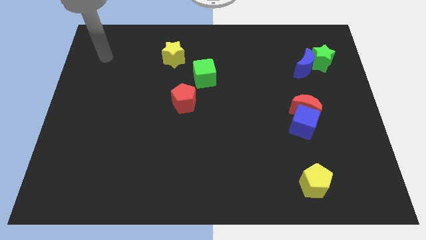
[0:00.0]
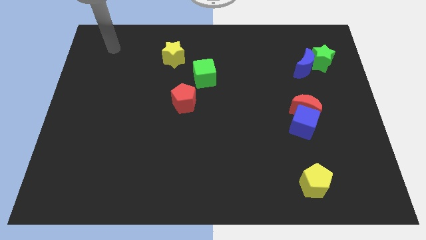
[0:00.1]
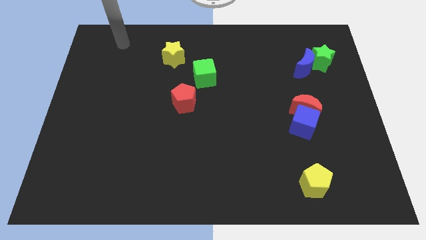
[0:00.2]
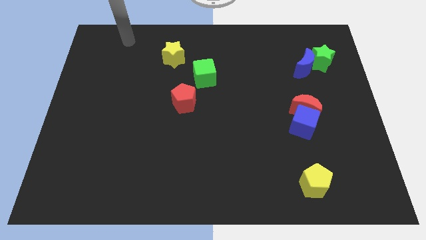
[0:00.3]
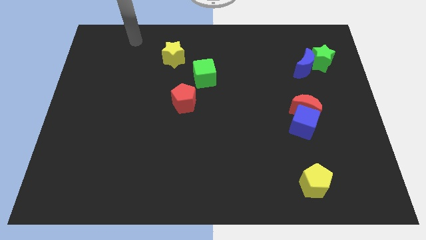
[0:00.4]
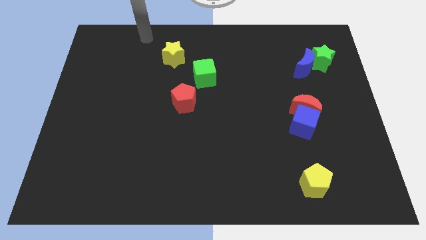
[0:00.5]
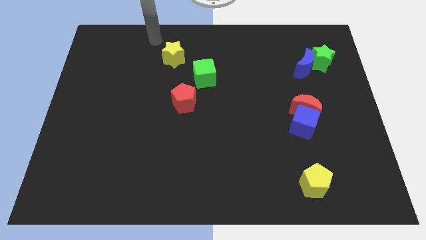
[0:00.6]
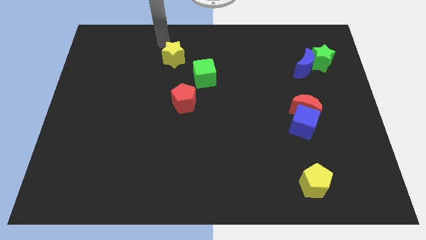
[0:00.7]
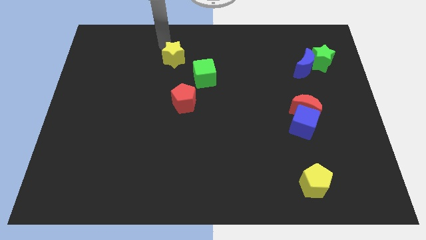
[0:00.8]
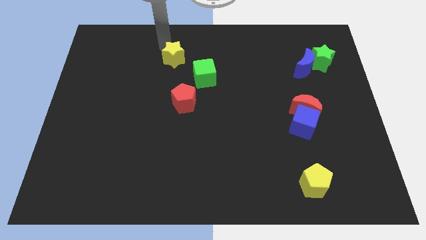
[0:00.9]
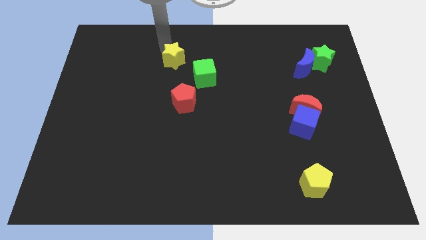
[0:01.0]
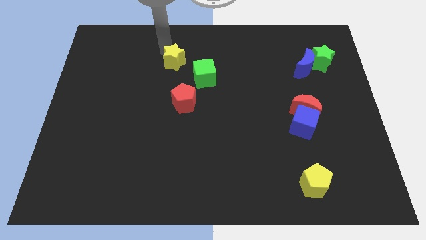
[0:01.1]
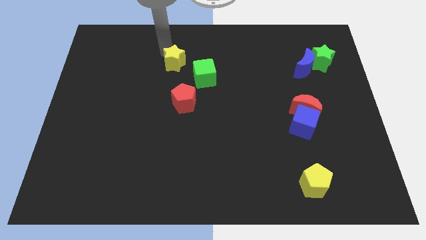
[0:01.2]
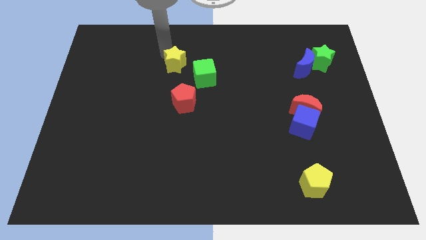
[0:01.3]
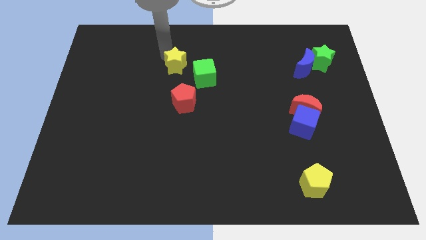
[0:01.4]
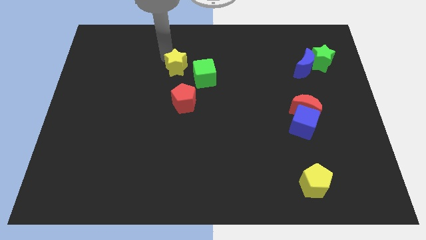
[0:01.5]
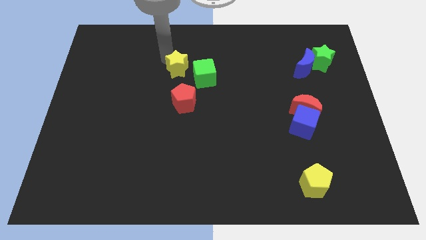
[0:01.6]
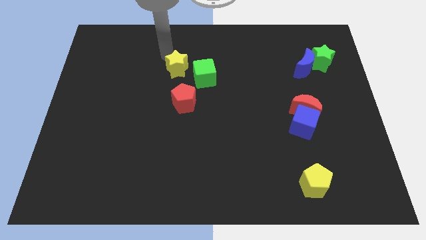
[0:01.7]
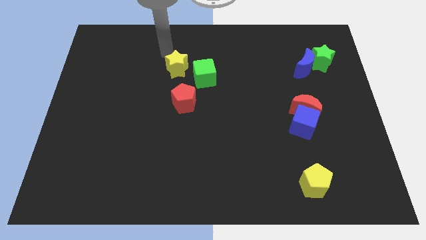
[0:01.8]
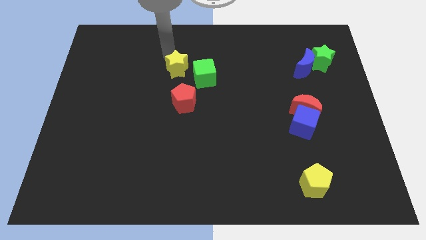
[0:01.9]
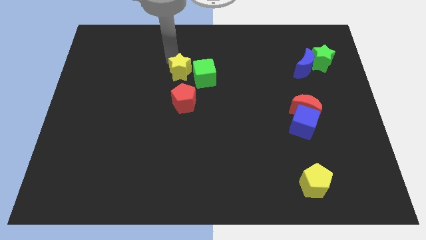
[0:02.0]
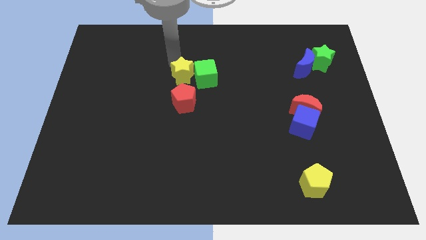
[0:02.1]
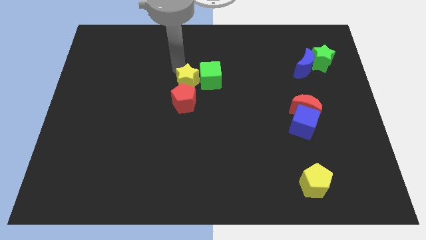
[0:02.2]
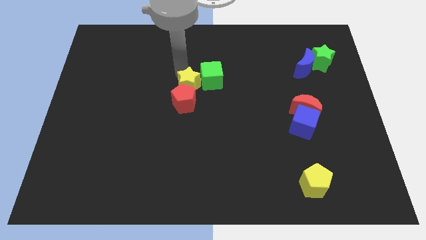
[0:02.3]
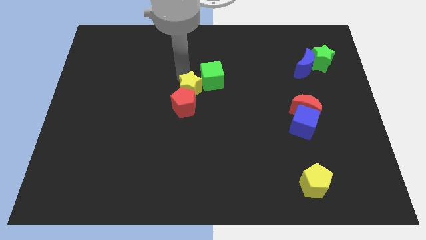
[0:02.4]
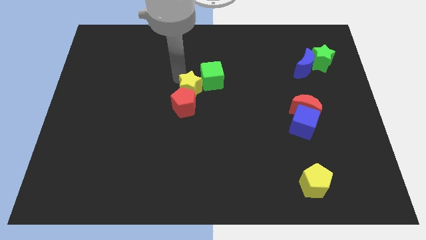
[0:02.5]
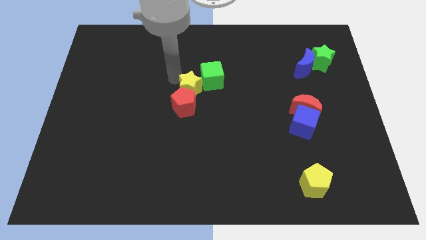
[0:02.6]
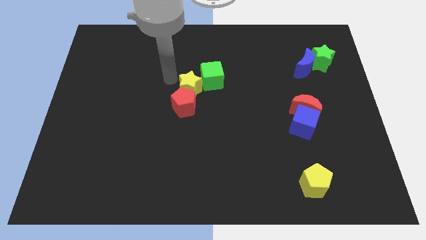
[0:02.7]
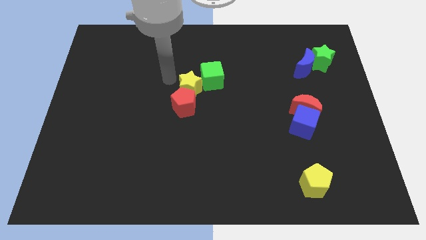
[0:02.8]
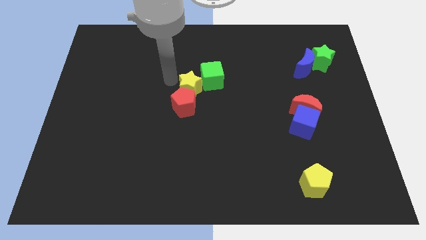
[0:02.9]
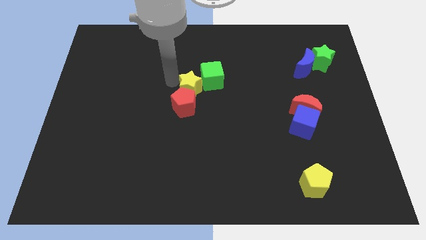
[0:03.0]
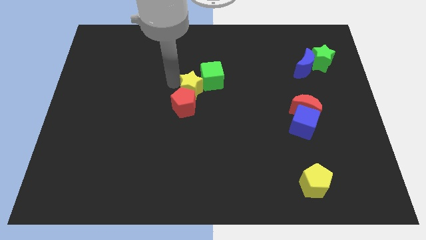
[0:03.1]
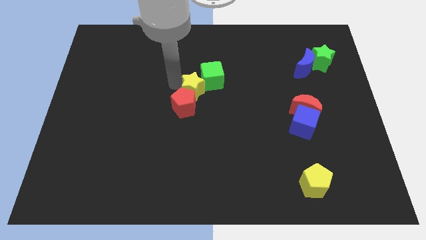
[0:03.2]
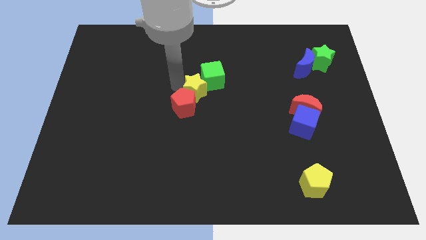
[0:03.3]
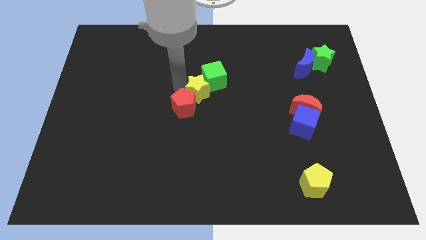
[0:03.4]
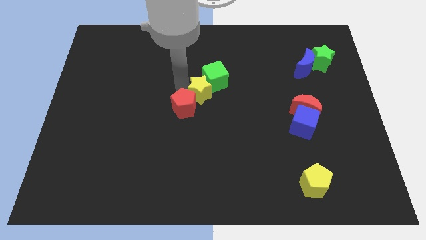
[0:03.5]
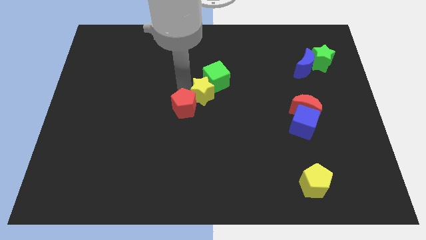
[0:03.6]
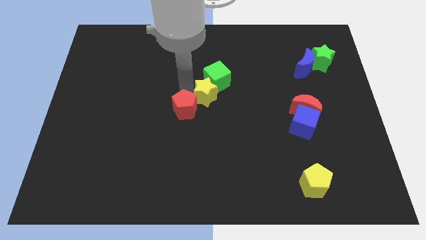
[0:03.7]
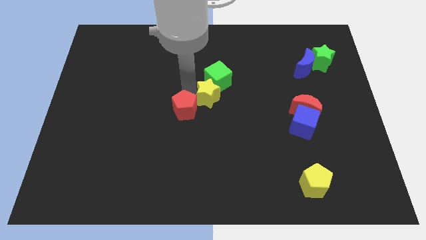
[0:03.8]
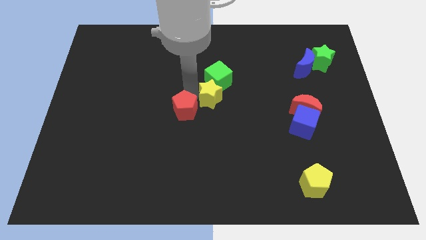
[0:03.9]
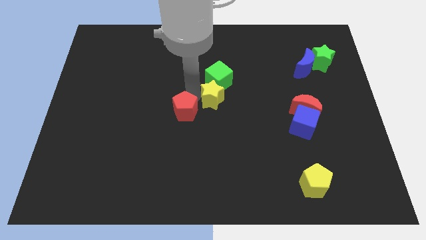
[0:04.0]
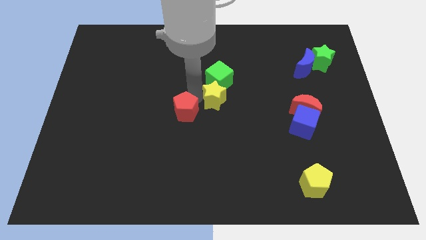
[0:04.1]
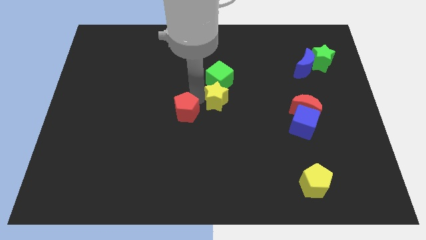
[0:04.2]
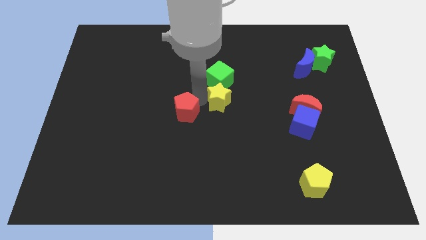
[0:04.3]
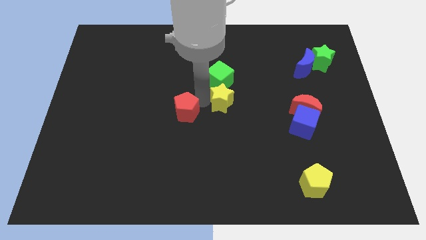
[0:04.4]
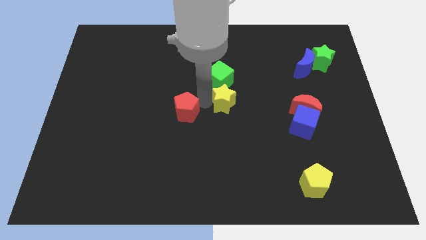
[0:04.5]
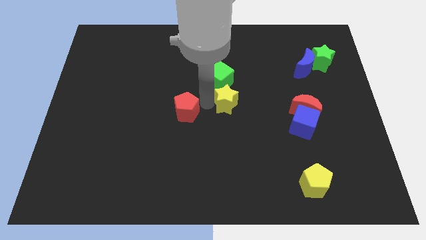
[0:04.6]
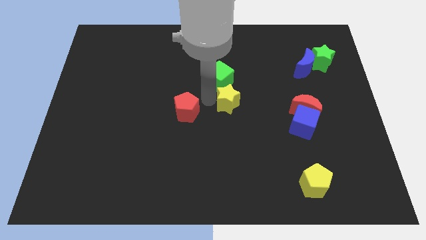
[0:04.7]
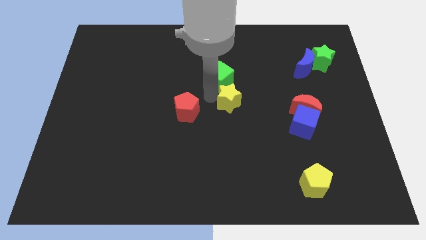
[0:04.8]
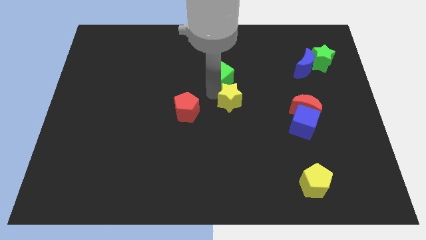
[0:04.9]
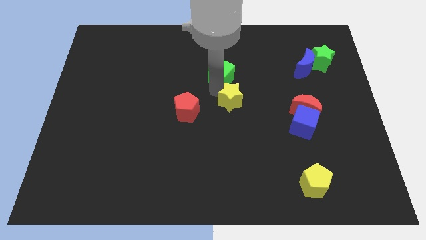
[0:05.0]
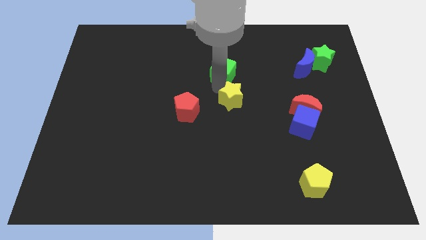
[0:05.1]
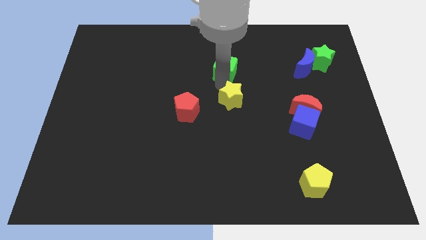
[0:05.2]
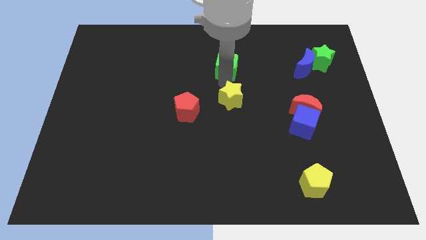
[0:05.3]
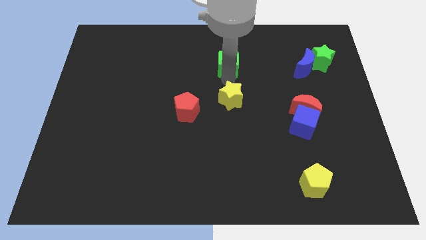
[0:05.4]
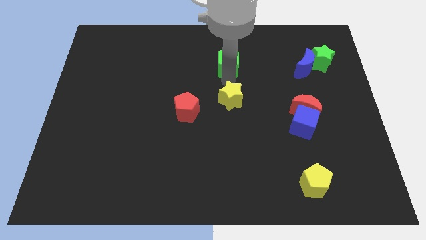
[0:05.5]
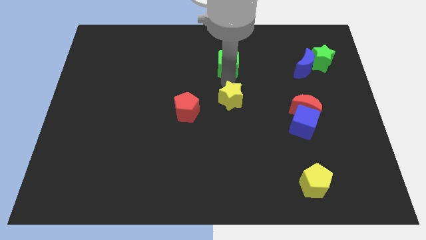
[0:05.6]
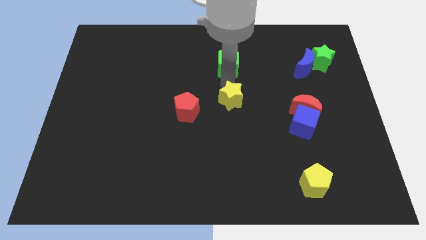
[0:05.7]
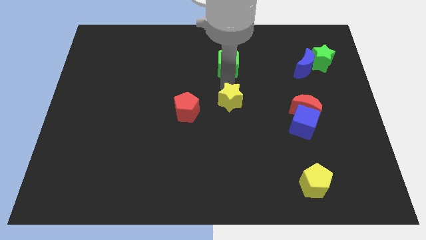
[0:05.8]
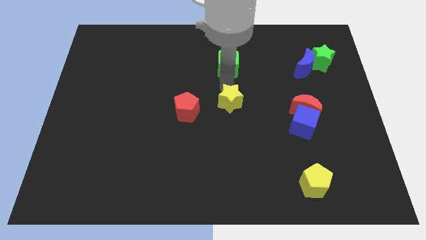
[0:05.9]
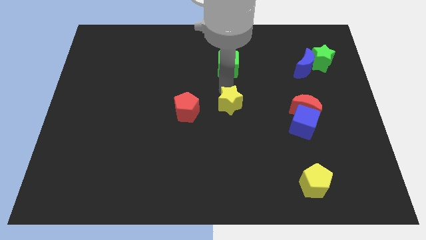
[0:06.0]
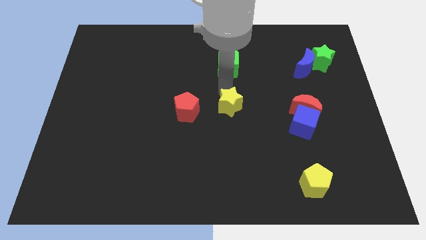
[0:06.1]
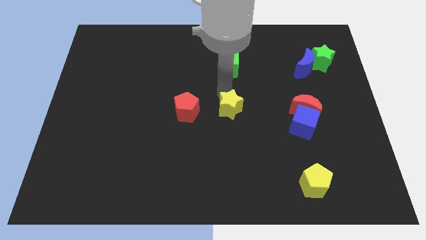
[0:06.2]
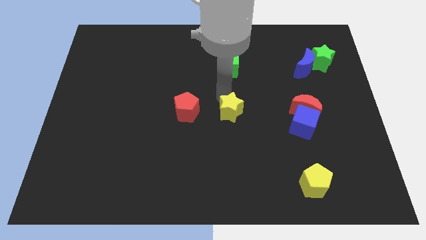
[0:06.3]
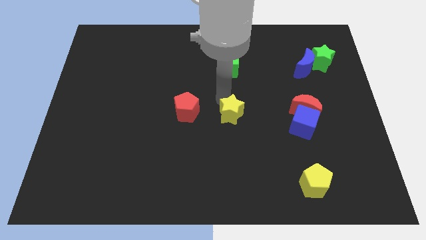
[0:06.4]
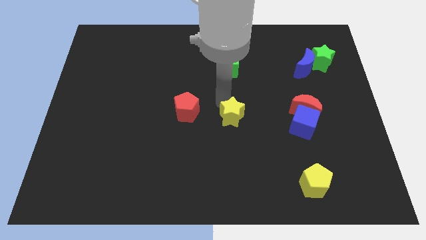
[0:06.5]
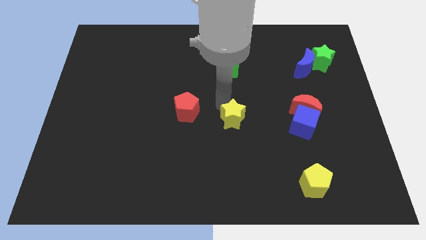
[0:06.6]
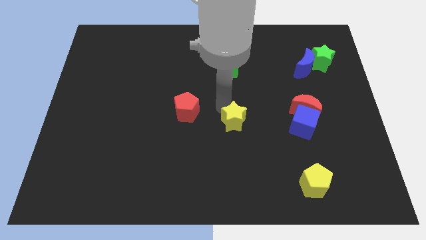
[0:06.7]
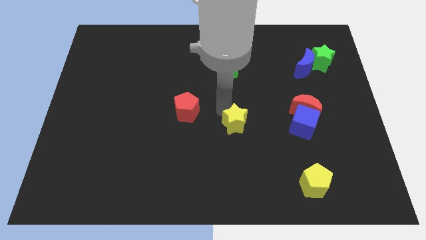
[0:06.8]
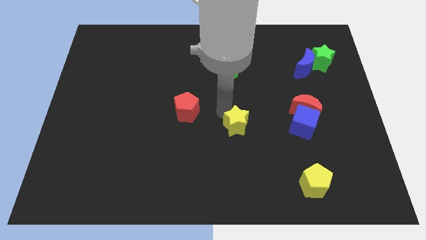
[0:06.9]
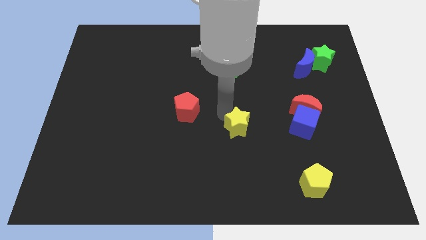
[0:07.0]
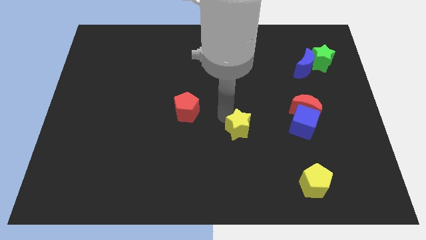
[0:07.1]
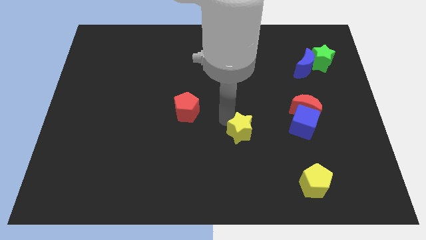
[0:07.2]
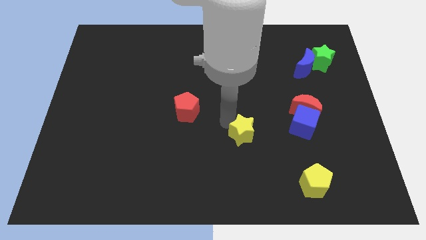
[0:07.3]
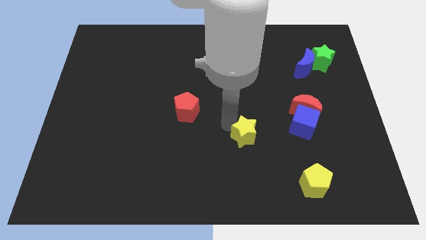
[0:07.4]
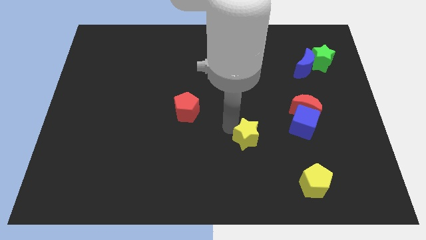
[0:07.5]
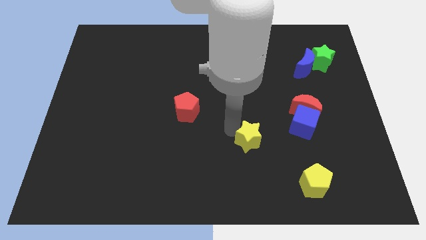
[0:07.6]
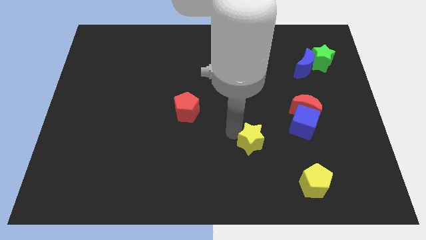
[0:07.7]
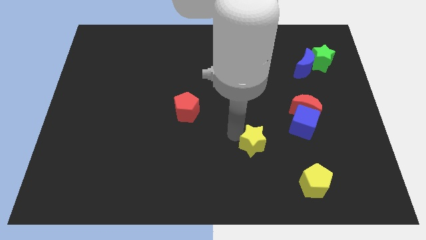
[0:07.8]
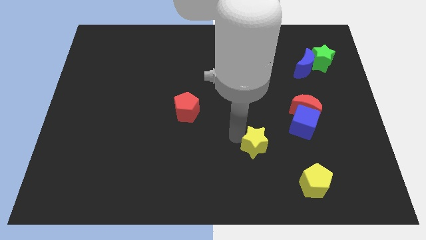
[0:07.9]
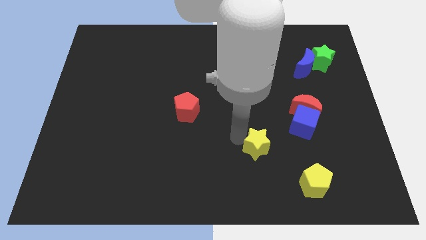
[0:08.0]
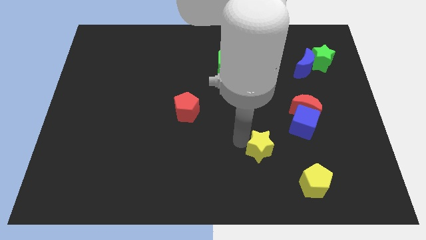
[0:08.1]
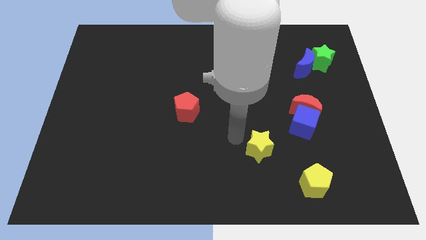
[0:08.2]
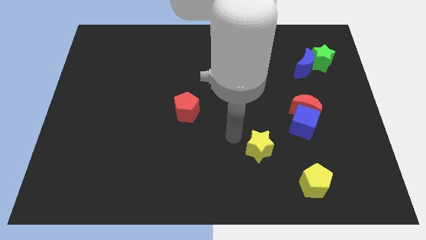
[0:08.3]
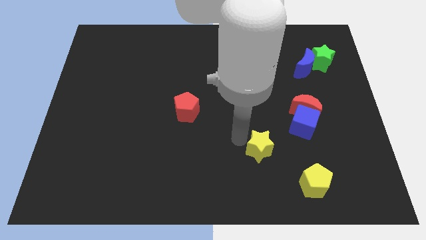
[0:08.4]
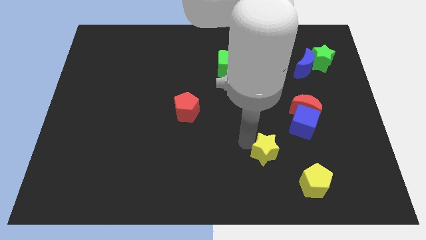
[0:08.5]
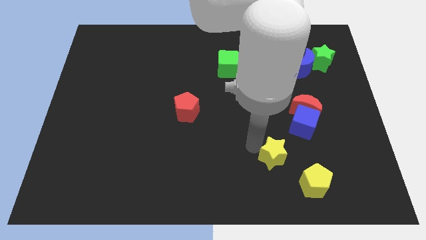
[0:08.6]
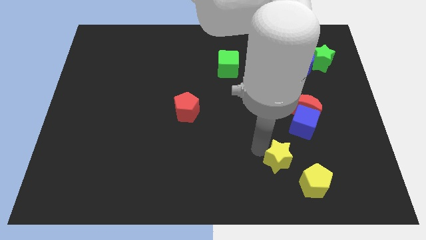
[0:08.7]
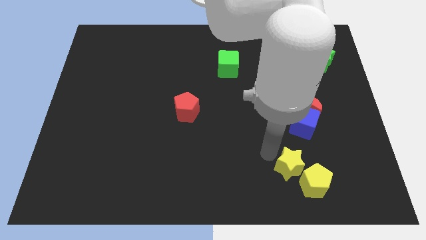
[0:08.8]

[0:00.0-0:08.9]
push the yellow star next to the yellow pentagon
